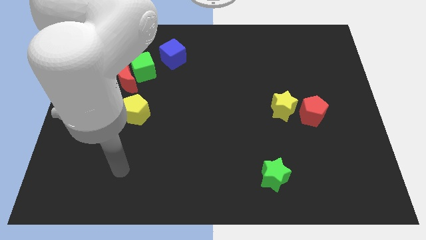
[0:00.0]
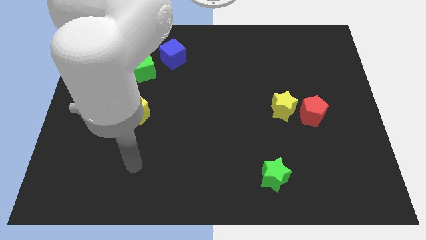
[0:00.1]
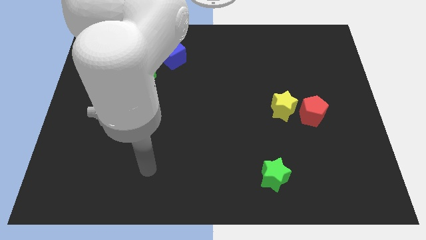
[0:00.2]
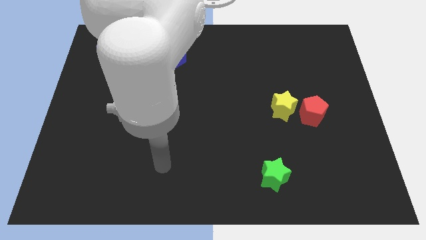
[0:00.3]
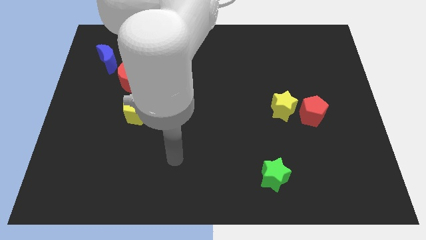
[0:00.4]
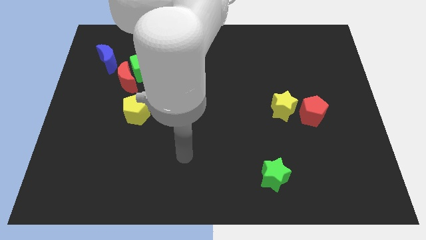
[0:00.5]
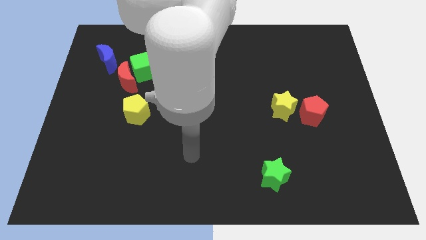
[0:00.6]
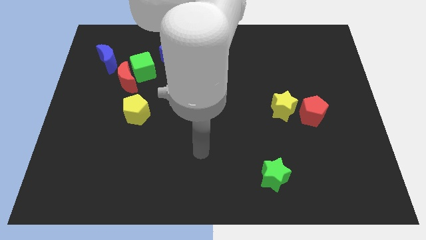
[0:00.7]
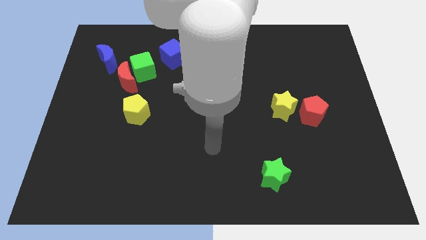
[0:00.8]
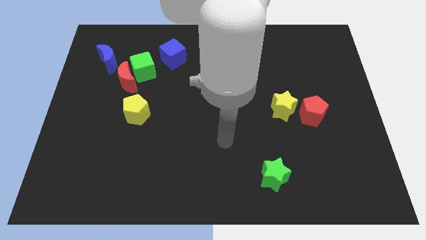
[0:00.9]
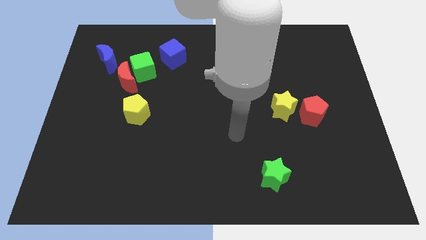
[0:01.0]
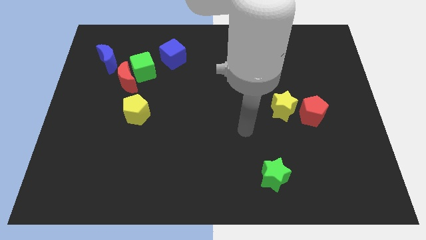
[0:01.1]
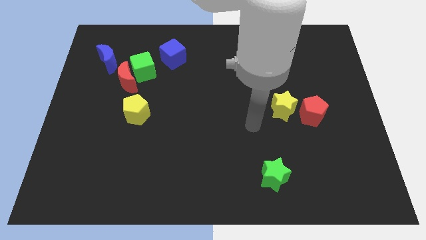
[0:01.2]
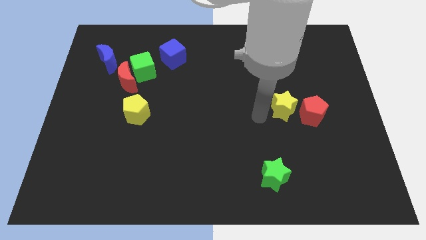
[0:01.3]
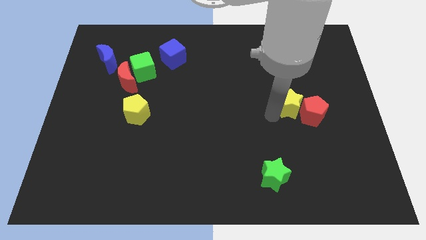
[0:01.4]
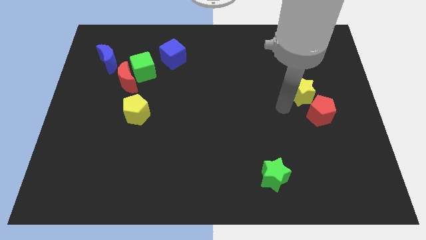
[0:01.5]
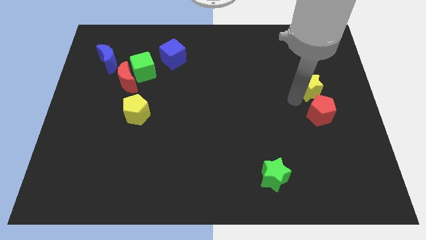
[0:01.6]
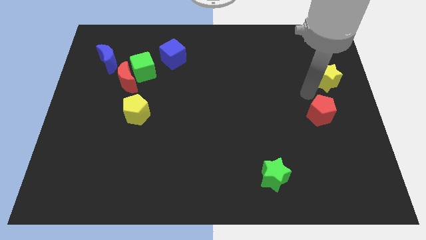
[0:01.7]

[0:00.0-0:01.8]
pull the red pentagon apart from the yellow star

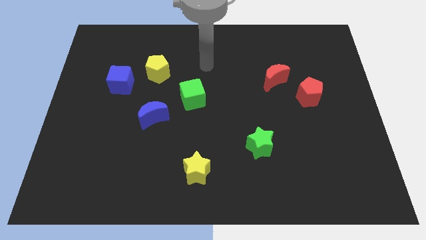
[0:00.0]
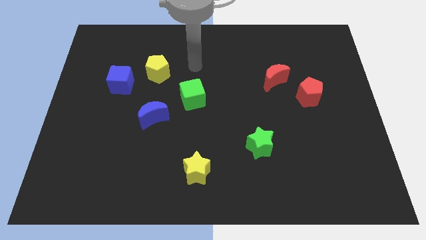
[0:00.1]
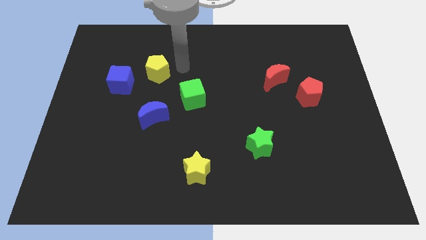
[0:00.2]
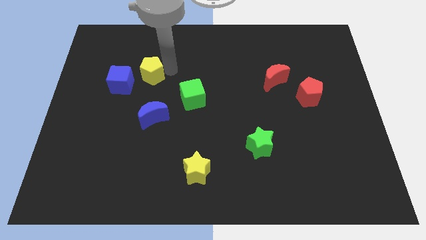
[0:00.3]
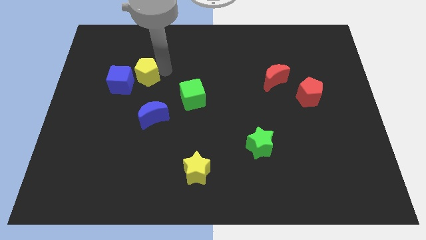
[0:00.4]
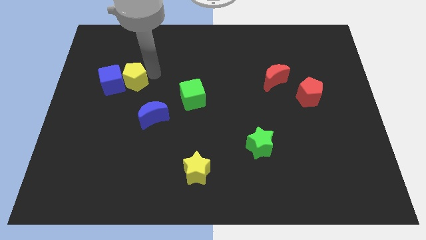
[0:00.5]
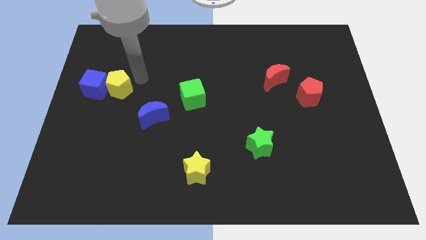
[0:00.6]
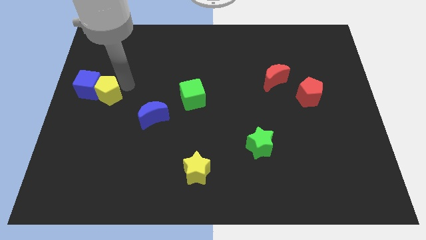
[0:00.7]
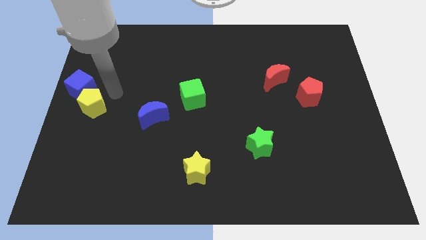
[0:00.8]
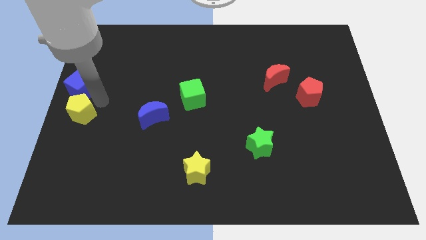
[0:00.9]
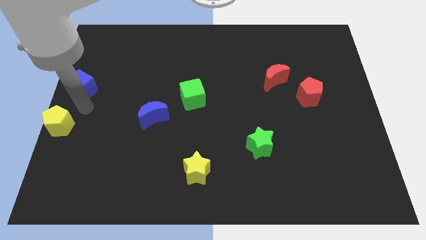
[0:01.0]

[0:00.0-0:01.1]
pull the blue cube apart from the yellow pentagon

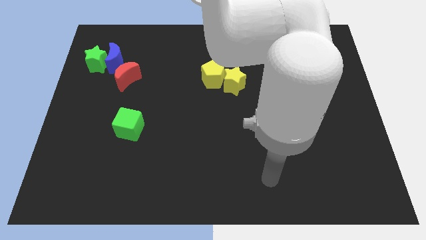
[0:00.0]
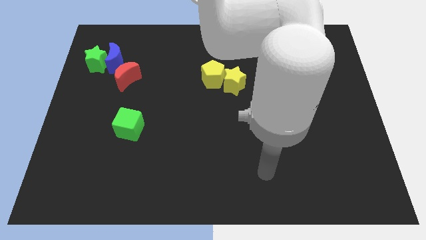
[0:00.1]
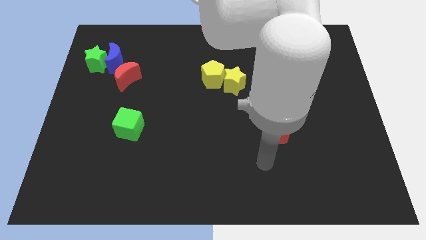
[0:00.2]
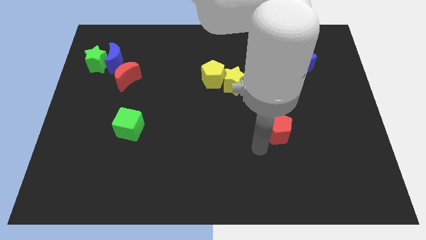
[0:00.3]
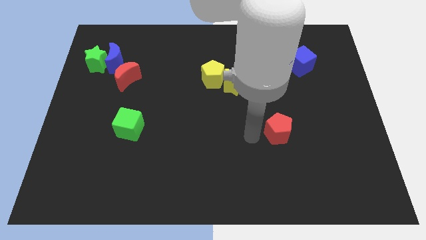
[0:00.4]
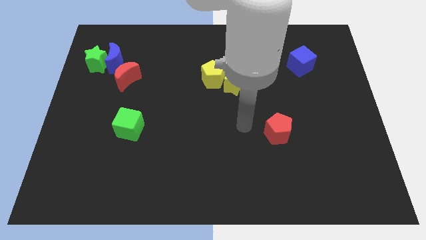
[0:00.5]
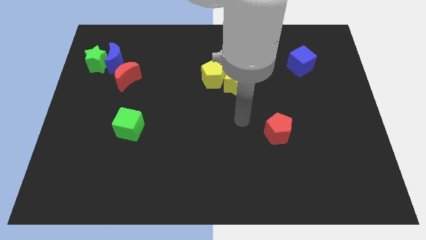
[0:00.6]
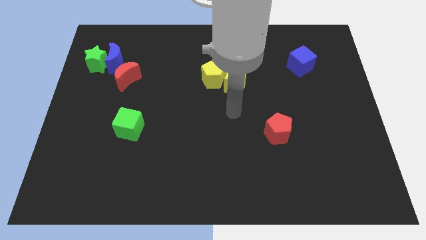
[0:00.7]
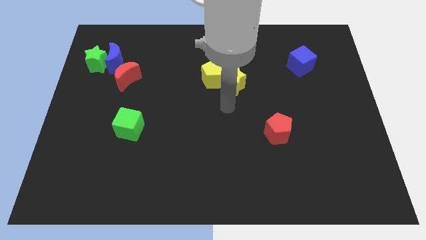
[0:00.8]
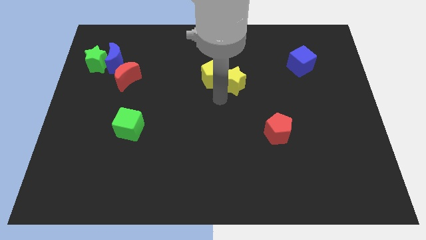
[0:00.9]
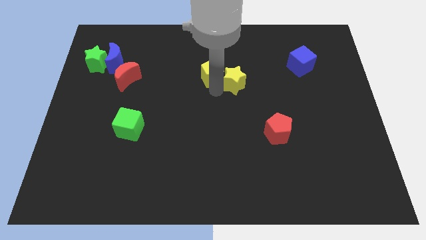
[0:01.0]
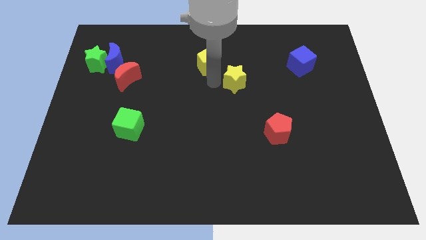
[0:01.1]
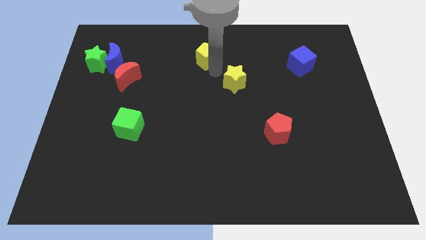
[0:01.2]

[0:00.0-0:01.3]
move the yellow star away from the yellow pentagon

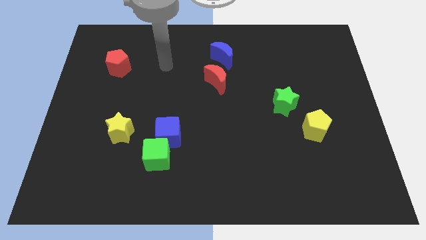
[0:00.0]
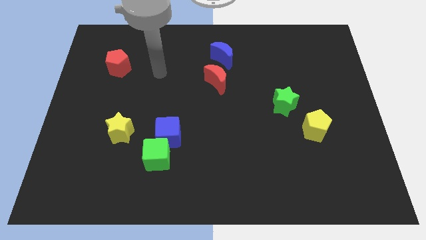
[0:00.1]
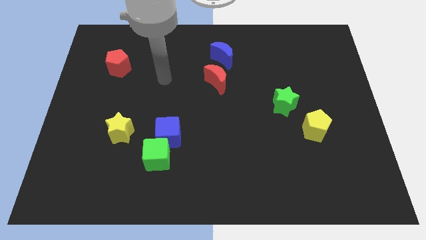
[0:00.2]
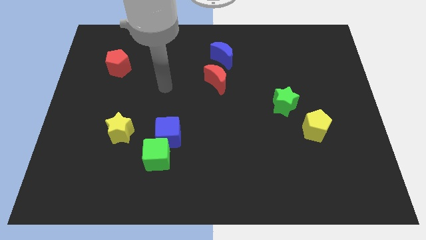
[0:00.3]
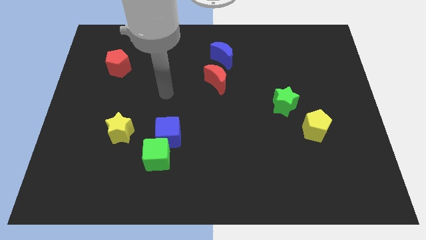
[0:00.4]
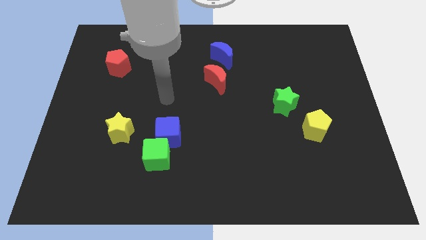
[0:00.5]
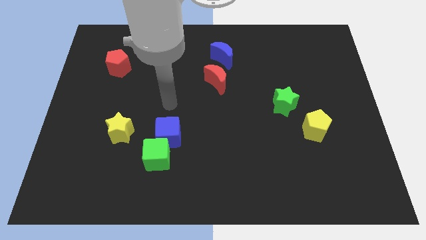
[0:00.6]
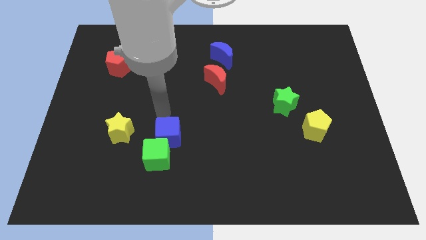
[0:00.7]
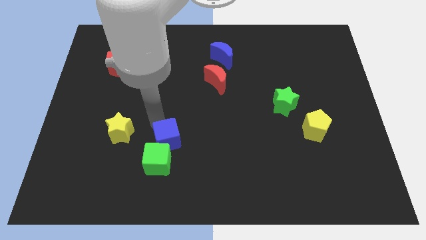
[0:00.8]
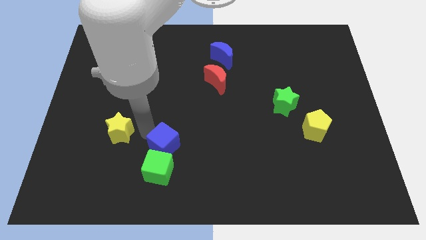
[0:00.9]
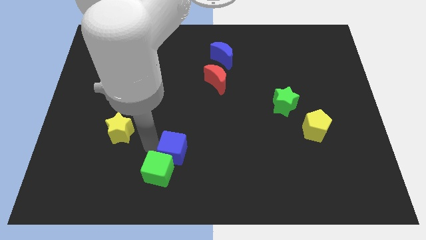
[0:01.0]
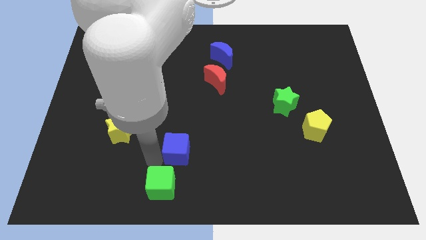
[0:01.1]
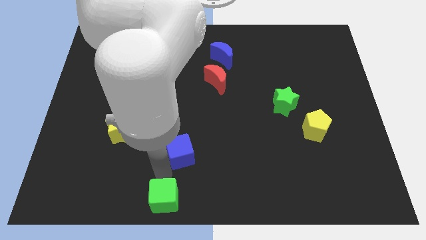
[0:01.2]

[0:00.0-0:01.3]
separate the blue cube from the green cube

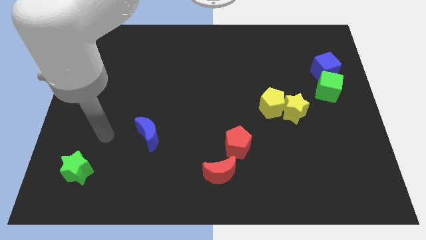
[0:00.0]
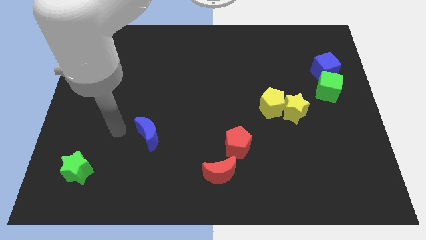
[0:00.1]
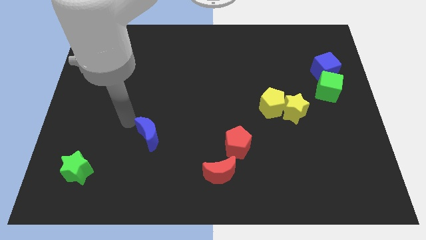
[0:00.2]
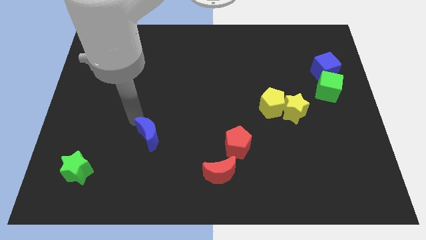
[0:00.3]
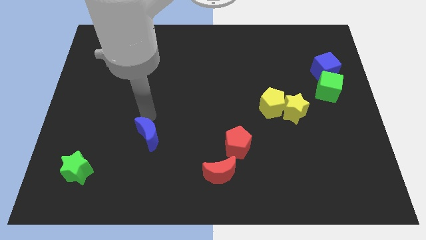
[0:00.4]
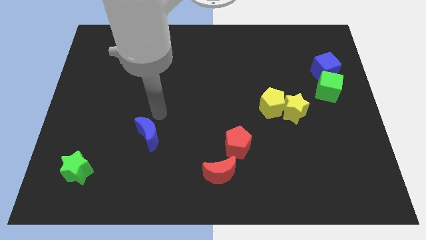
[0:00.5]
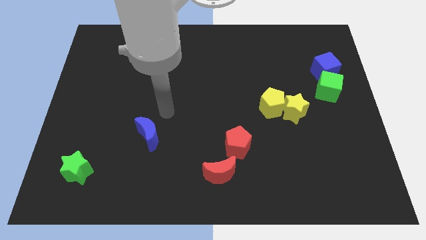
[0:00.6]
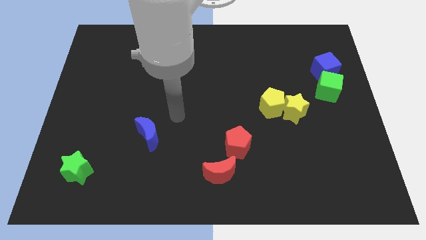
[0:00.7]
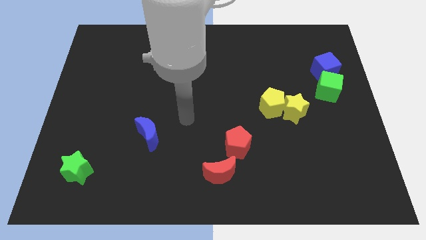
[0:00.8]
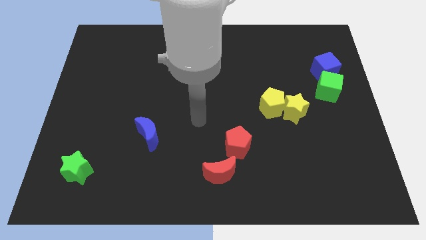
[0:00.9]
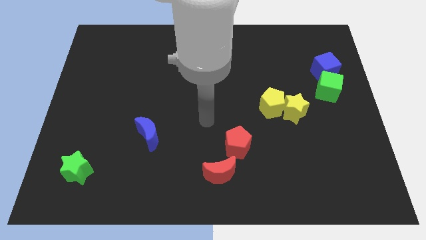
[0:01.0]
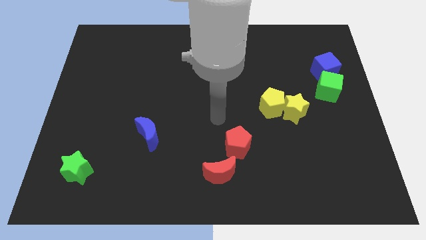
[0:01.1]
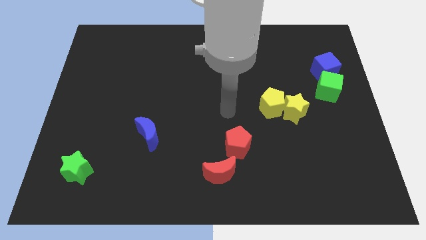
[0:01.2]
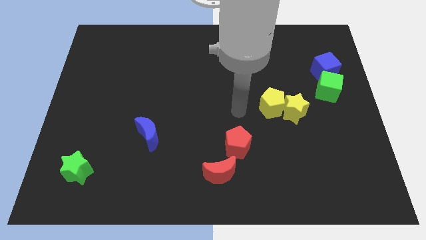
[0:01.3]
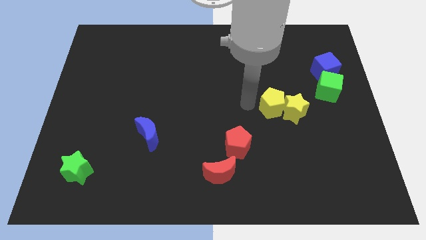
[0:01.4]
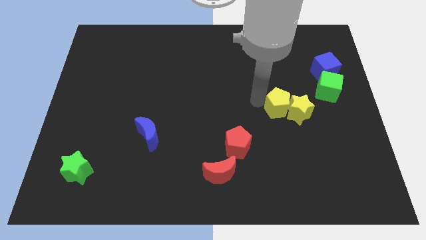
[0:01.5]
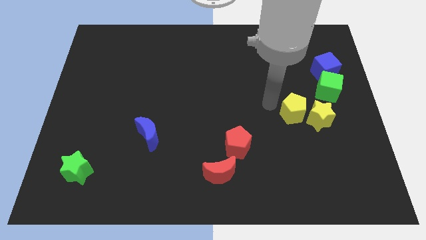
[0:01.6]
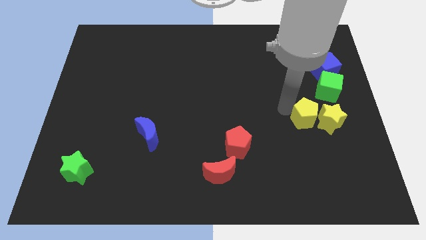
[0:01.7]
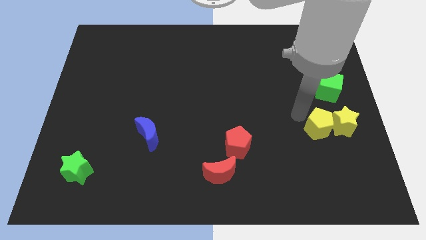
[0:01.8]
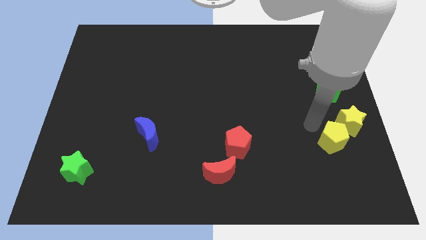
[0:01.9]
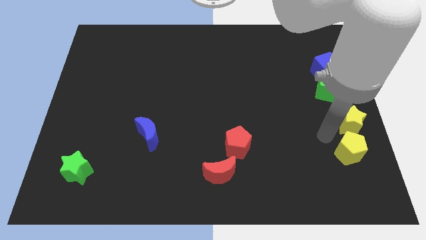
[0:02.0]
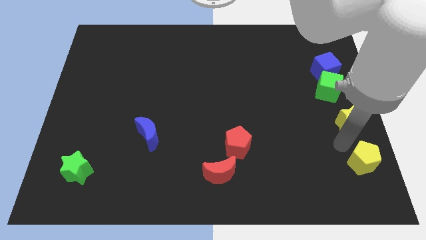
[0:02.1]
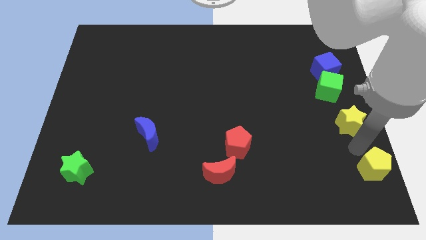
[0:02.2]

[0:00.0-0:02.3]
separate the yellow star from the yellow pentagon

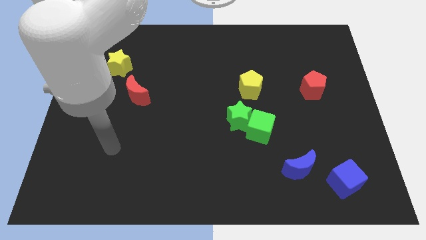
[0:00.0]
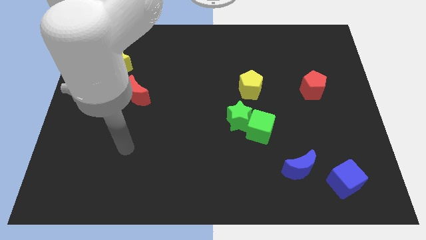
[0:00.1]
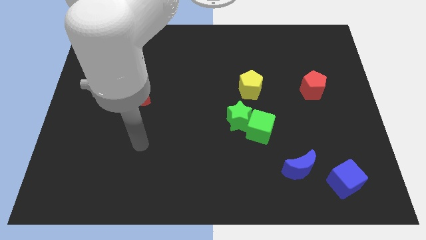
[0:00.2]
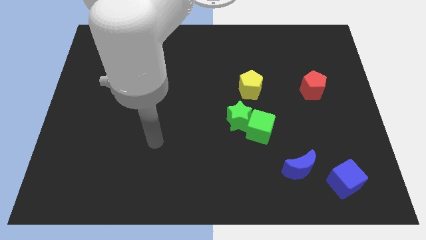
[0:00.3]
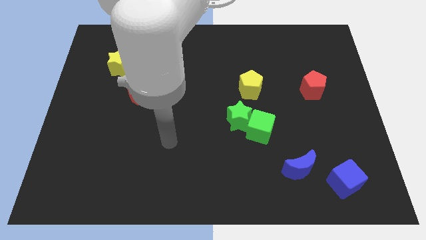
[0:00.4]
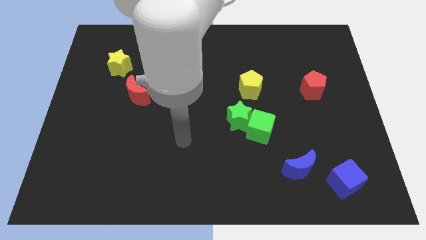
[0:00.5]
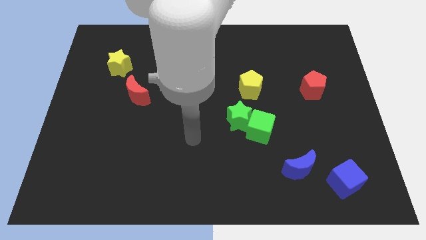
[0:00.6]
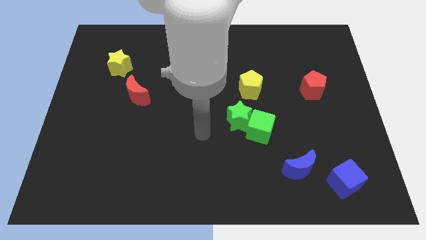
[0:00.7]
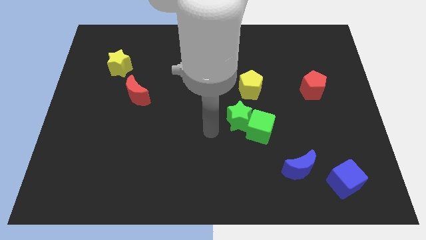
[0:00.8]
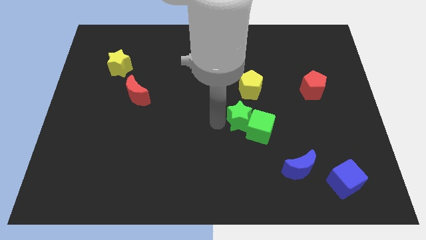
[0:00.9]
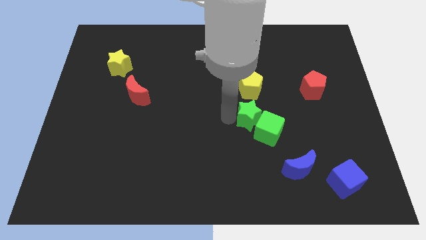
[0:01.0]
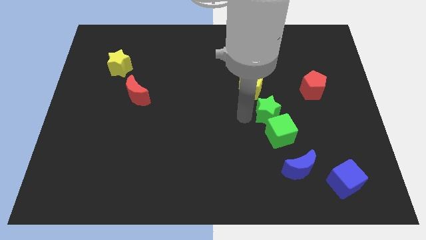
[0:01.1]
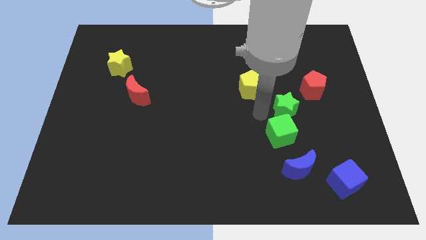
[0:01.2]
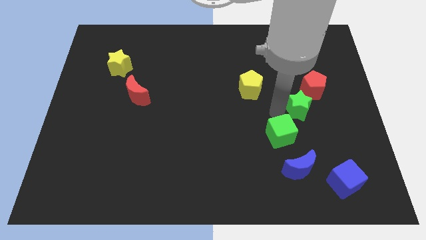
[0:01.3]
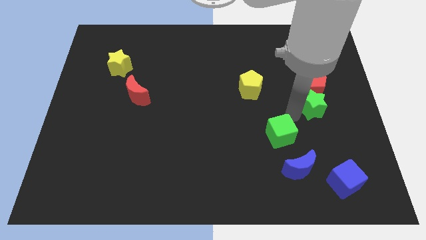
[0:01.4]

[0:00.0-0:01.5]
move the green cube away from the green star

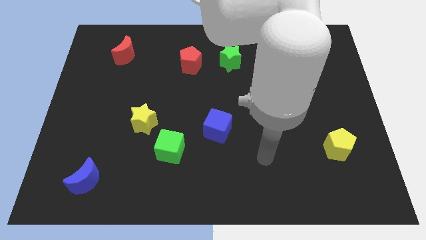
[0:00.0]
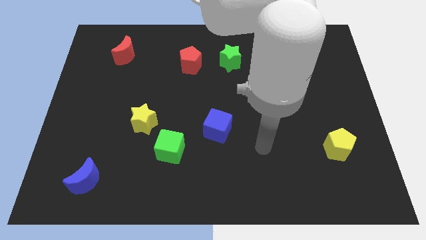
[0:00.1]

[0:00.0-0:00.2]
separate the green cube from the yellow star
